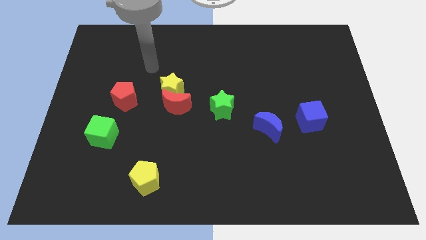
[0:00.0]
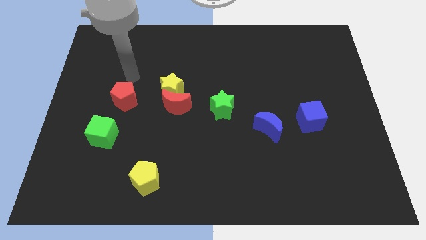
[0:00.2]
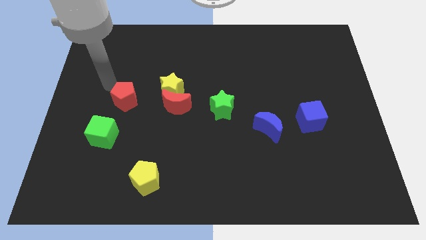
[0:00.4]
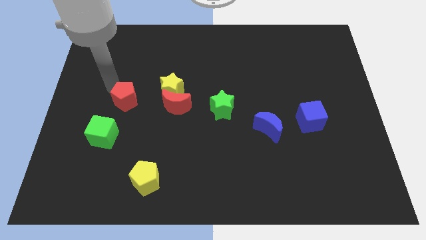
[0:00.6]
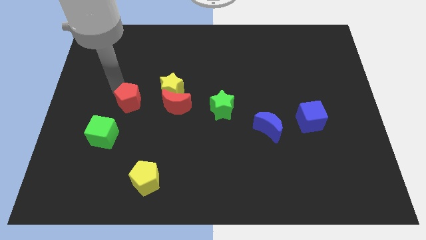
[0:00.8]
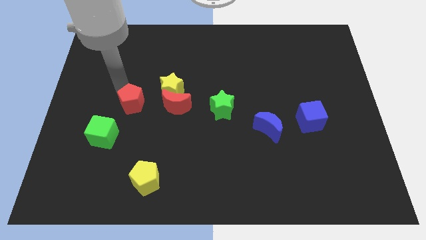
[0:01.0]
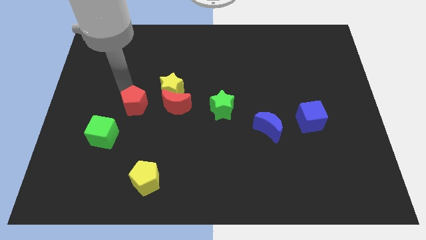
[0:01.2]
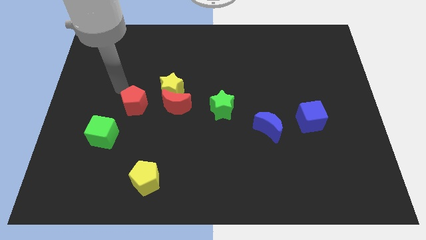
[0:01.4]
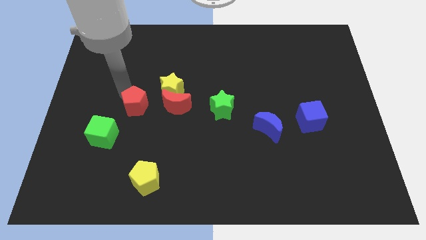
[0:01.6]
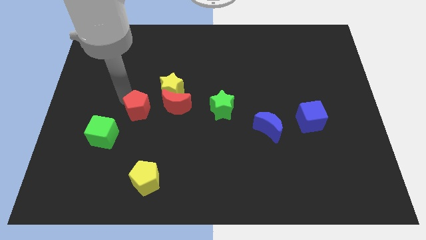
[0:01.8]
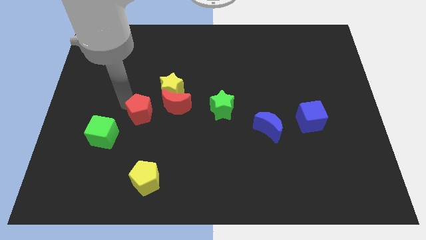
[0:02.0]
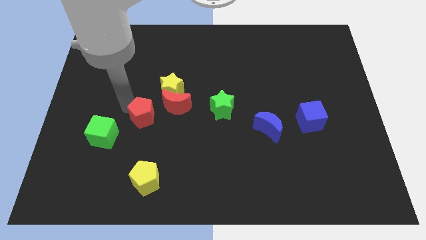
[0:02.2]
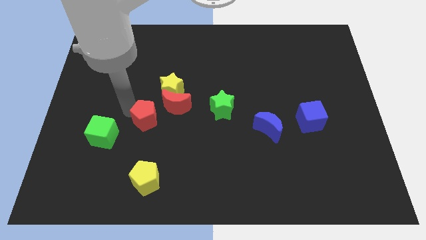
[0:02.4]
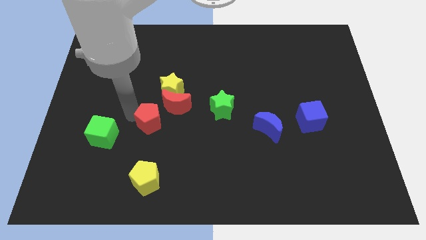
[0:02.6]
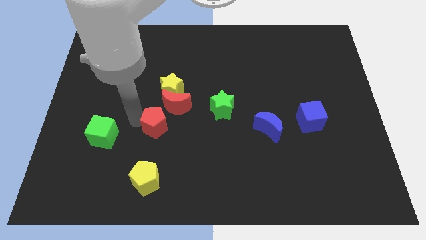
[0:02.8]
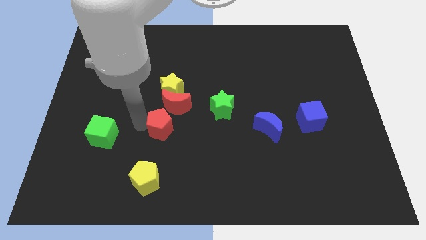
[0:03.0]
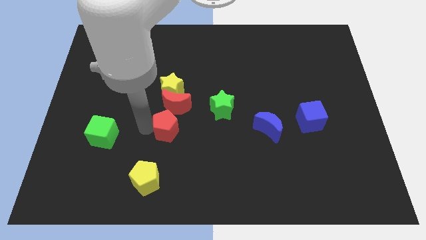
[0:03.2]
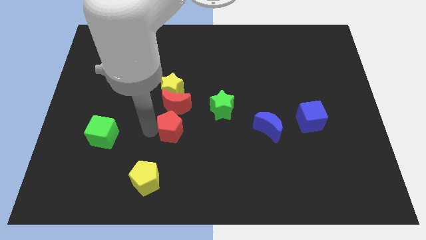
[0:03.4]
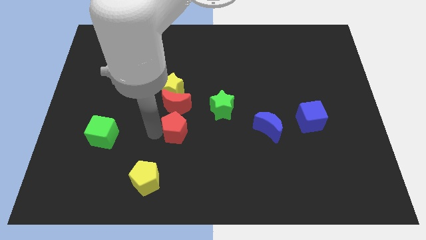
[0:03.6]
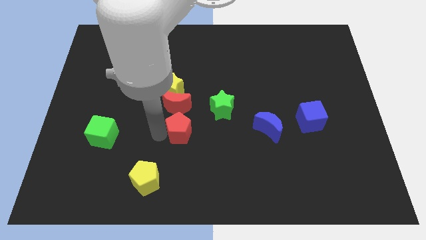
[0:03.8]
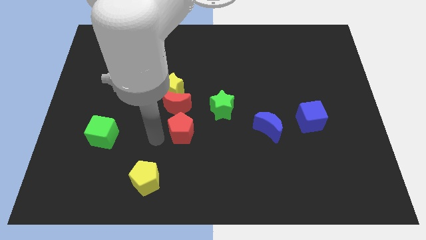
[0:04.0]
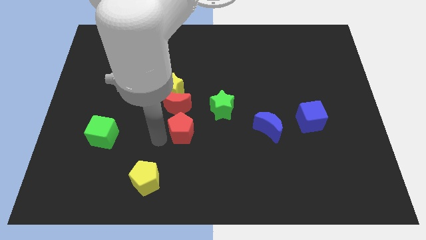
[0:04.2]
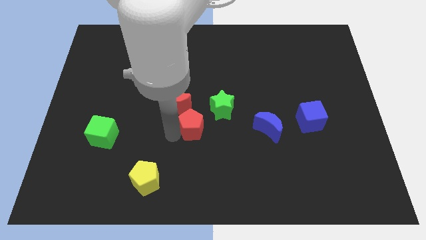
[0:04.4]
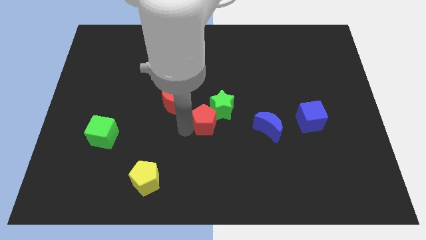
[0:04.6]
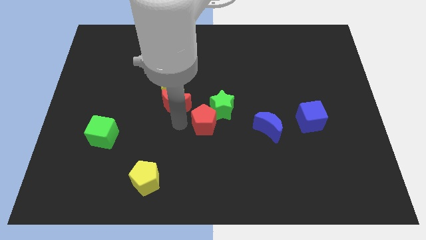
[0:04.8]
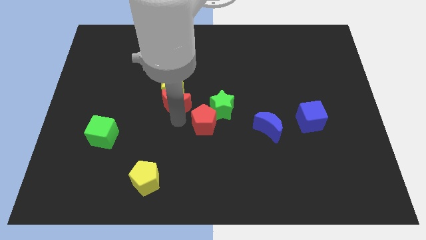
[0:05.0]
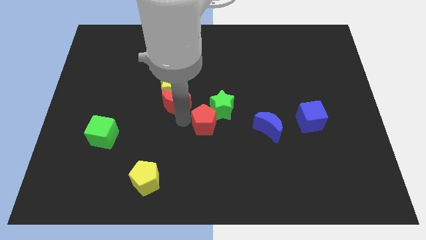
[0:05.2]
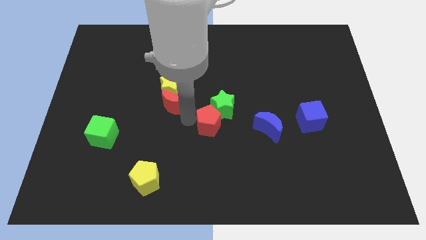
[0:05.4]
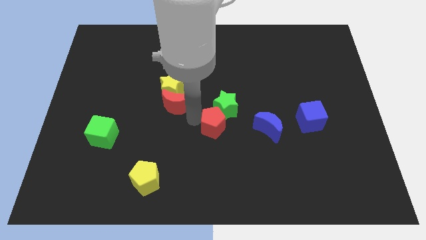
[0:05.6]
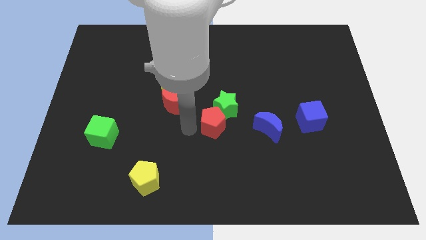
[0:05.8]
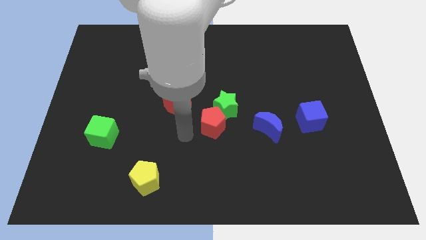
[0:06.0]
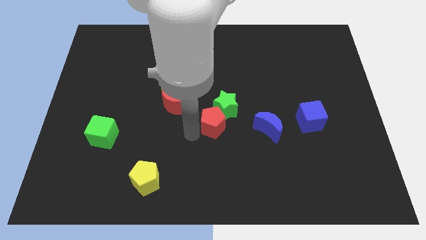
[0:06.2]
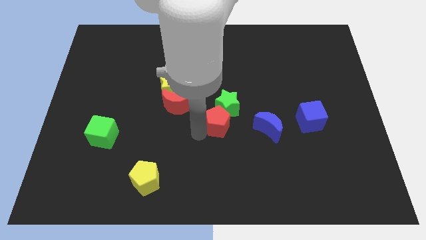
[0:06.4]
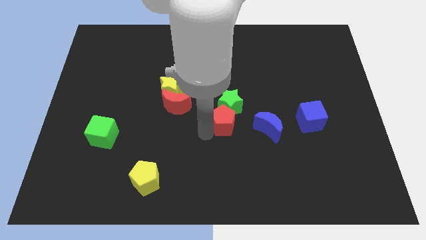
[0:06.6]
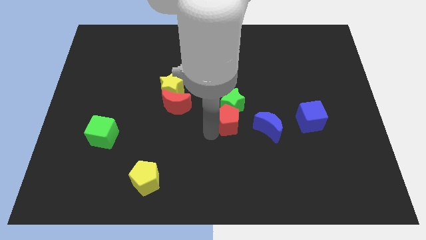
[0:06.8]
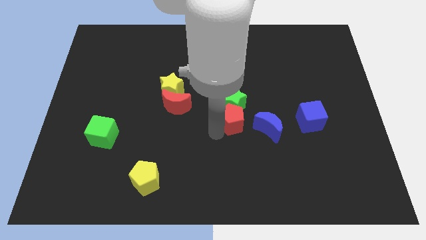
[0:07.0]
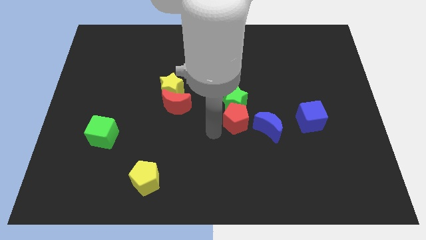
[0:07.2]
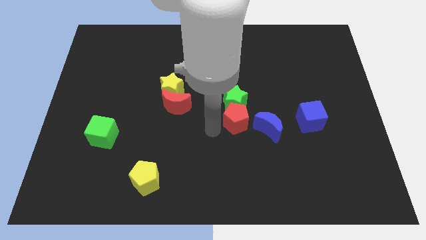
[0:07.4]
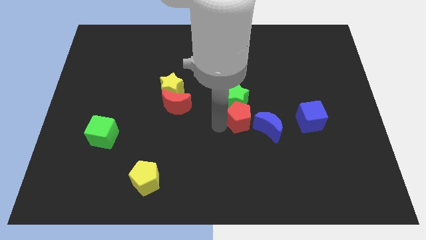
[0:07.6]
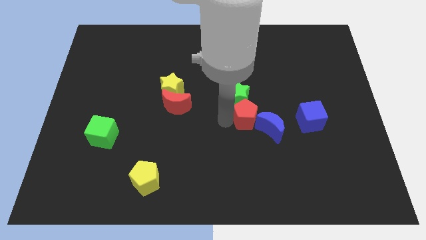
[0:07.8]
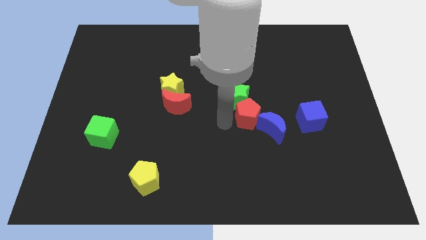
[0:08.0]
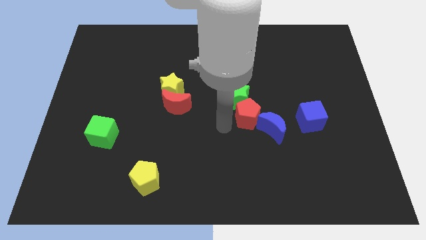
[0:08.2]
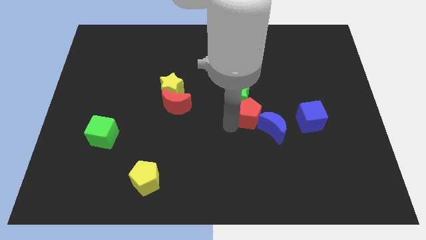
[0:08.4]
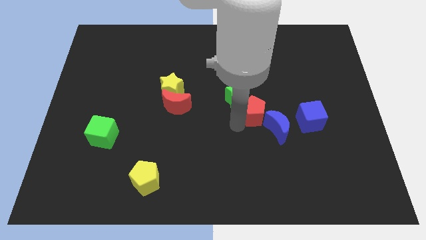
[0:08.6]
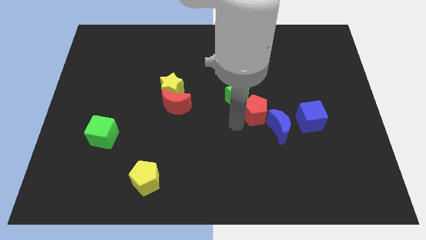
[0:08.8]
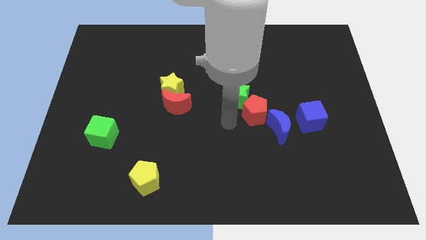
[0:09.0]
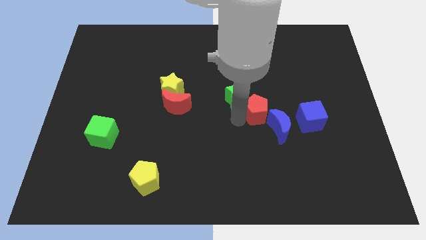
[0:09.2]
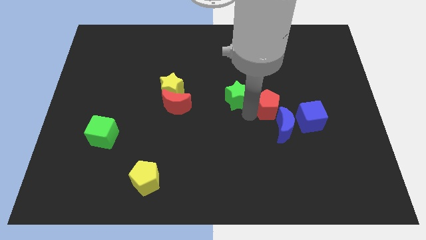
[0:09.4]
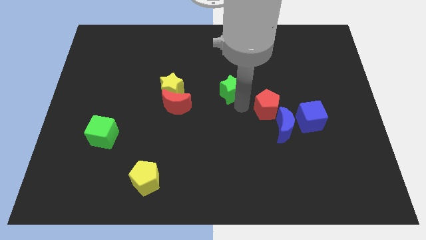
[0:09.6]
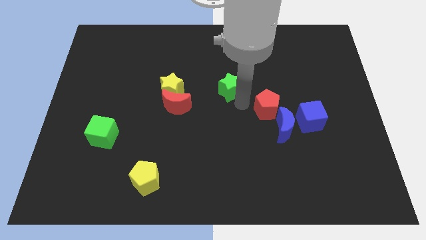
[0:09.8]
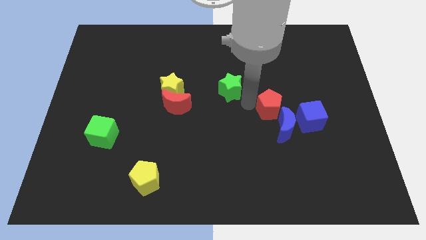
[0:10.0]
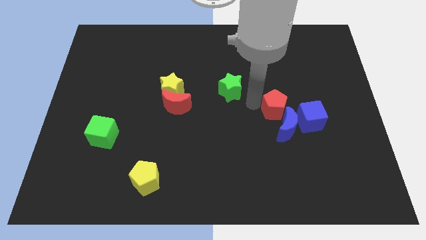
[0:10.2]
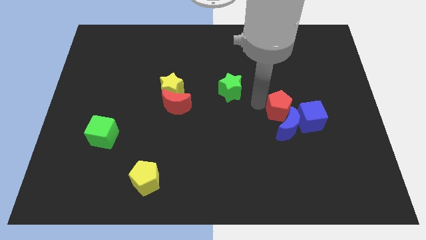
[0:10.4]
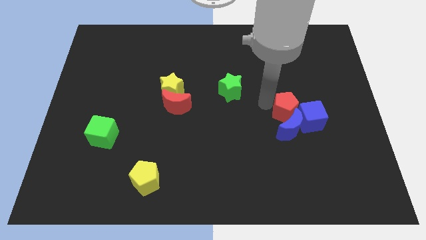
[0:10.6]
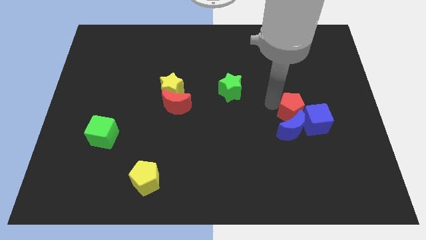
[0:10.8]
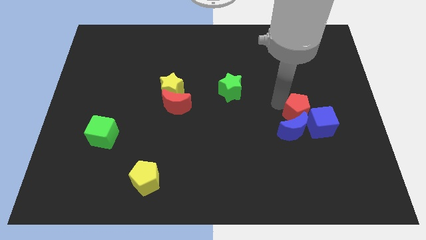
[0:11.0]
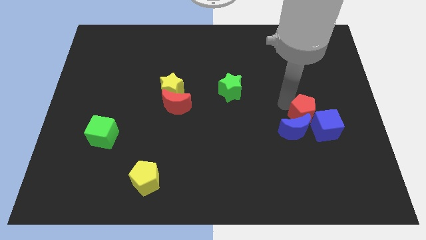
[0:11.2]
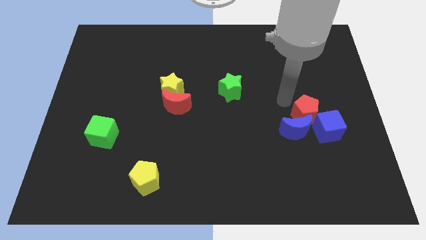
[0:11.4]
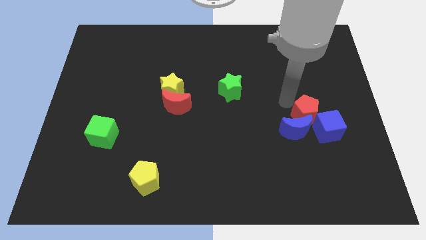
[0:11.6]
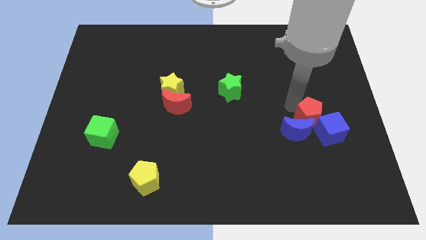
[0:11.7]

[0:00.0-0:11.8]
put the red pentagon next to the blue cube

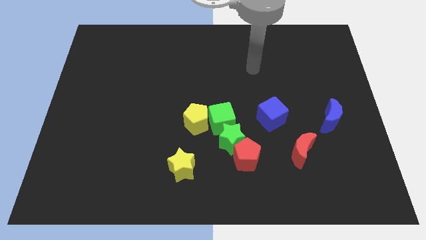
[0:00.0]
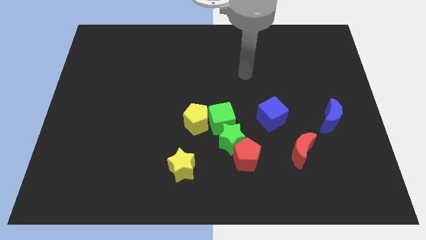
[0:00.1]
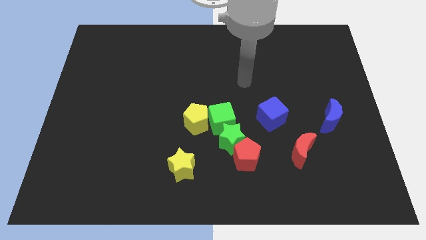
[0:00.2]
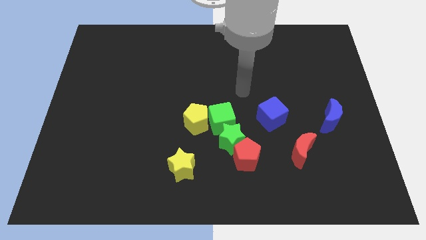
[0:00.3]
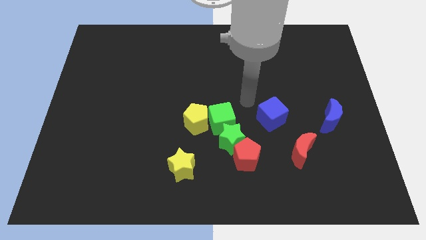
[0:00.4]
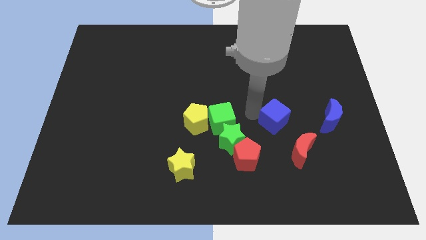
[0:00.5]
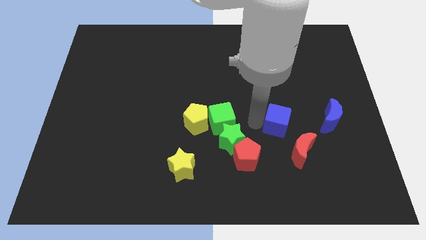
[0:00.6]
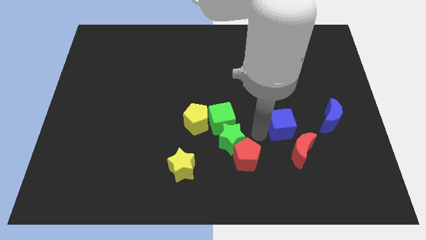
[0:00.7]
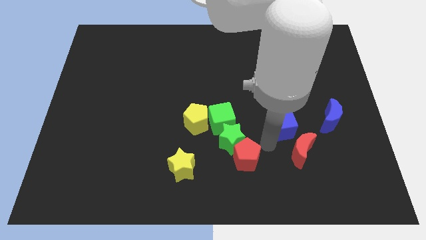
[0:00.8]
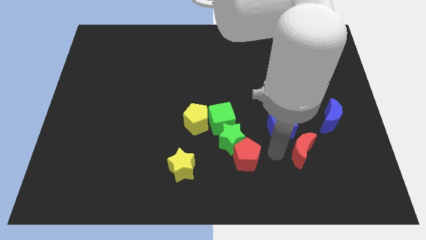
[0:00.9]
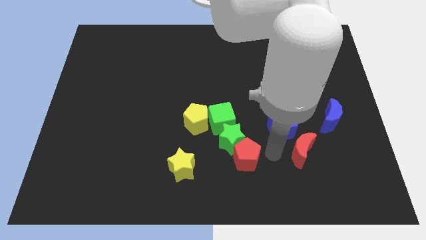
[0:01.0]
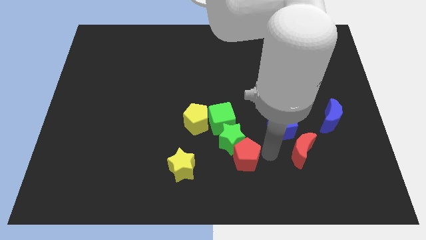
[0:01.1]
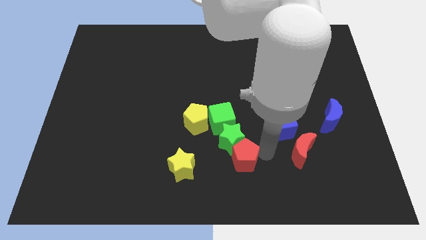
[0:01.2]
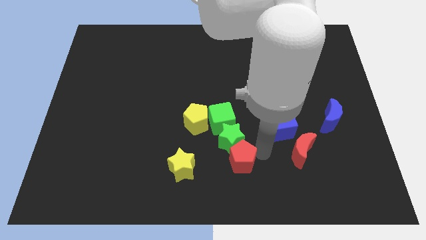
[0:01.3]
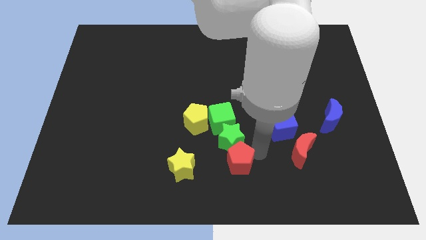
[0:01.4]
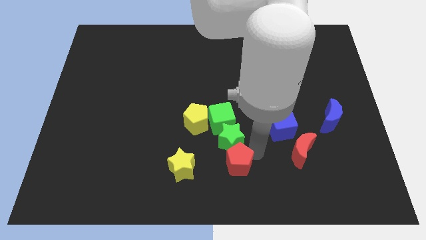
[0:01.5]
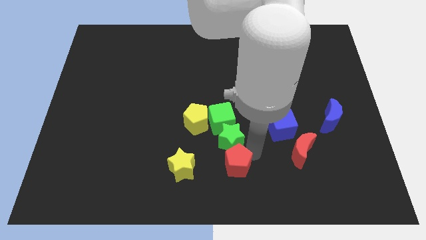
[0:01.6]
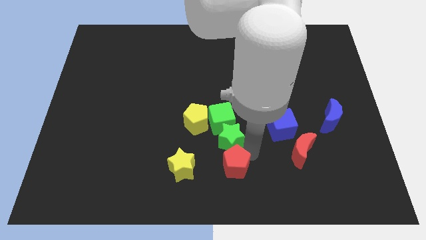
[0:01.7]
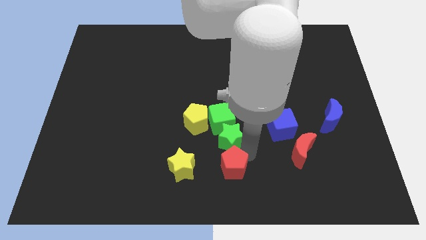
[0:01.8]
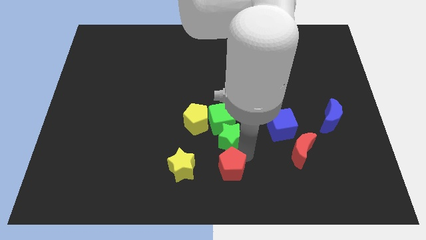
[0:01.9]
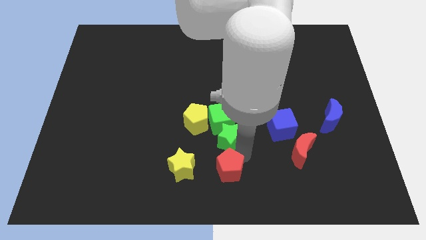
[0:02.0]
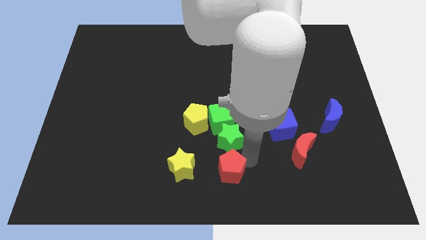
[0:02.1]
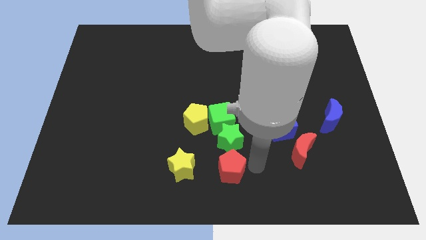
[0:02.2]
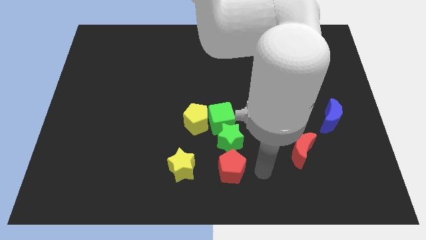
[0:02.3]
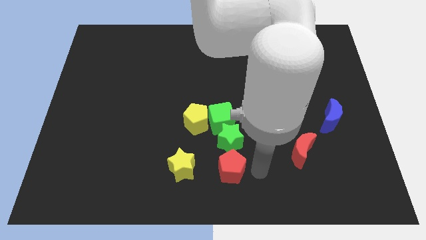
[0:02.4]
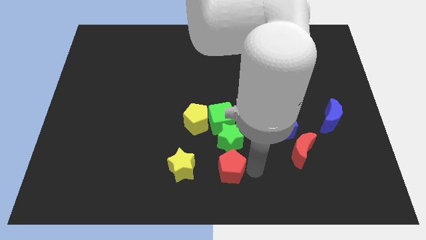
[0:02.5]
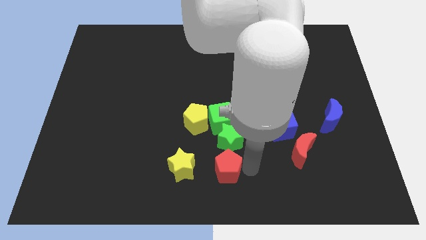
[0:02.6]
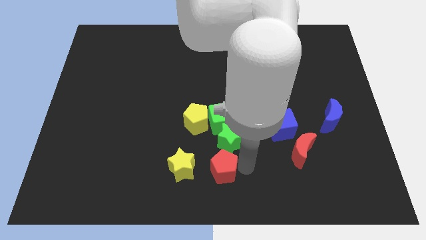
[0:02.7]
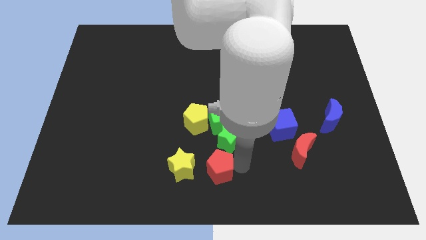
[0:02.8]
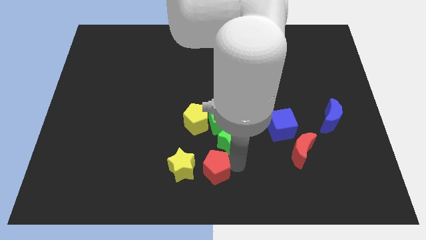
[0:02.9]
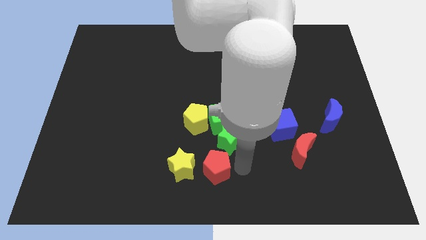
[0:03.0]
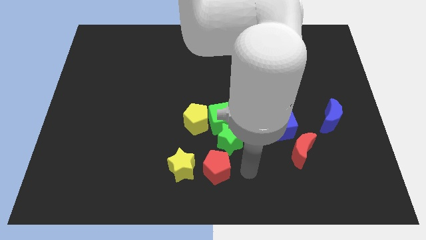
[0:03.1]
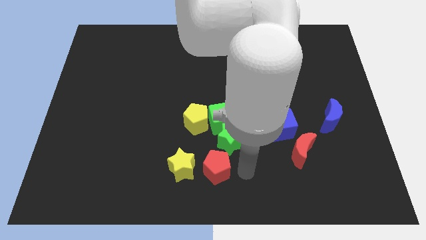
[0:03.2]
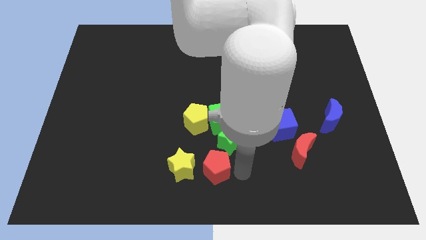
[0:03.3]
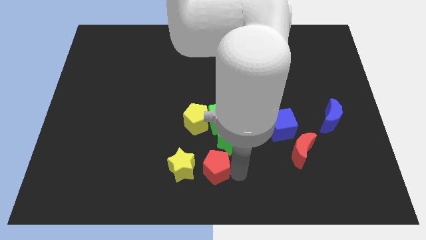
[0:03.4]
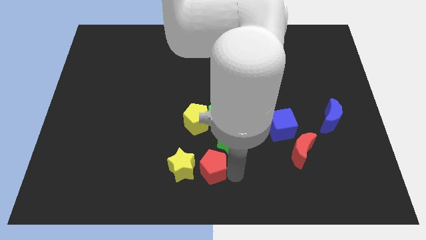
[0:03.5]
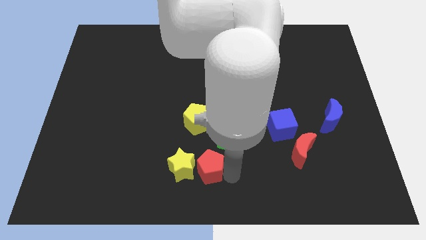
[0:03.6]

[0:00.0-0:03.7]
push the red pentagon towards the yellow star
